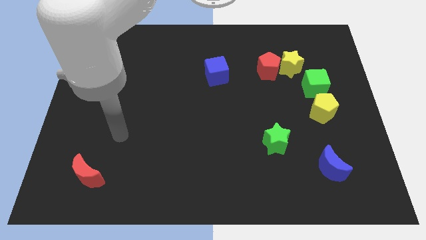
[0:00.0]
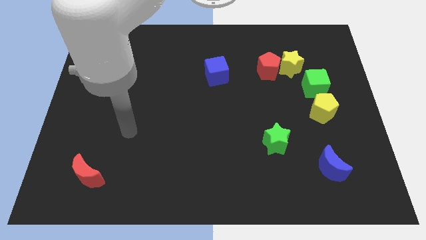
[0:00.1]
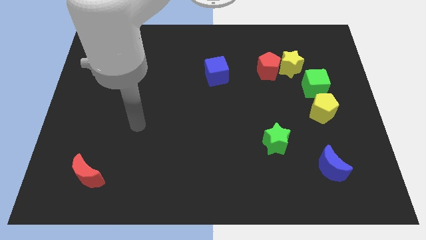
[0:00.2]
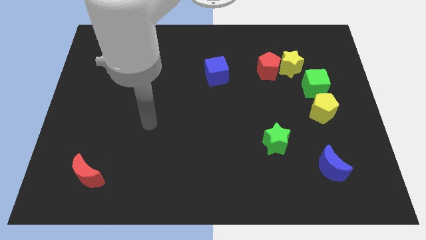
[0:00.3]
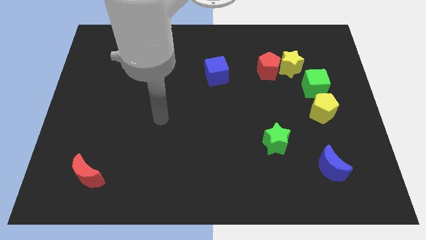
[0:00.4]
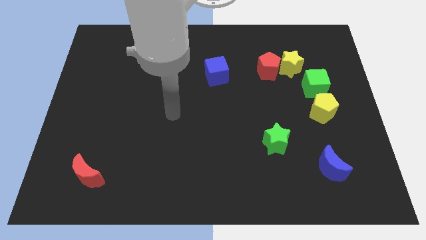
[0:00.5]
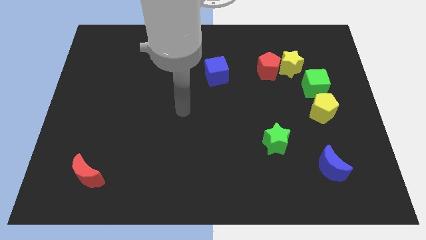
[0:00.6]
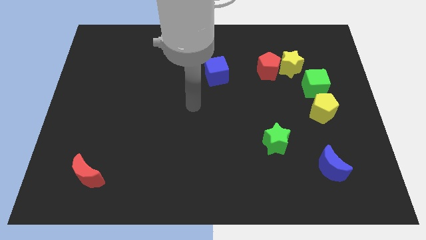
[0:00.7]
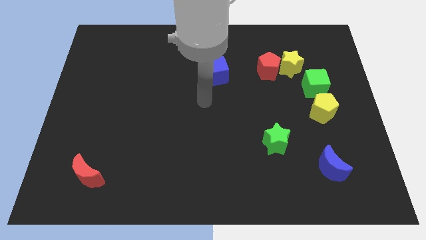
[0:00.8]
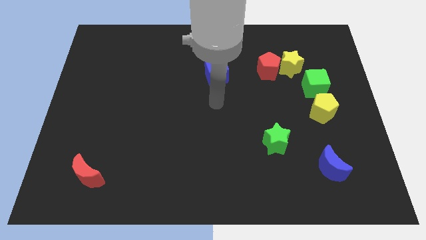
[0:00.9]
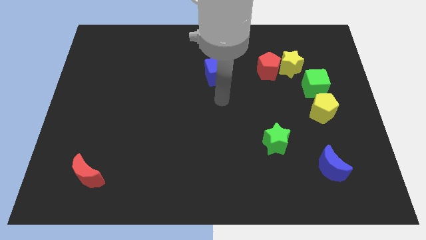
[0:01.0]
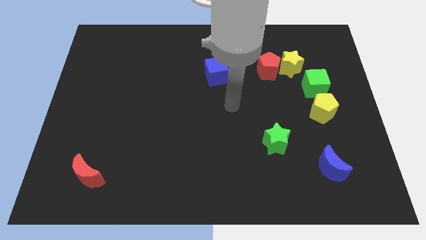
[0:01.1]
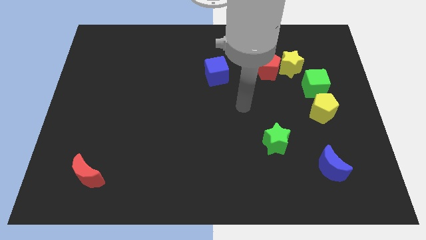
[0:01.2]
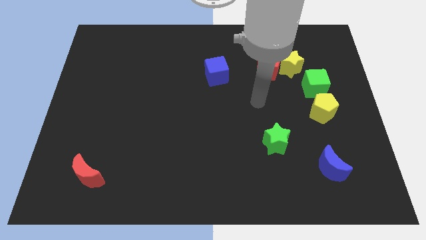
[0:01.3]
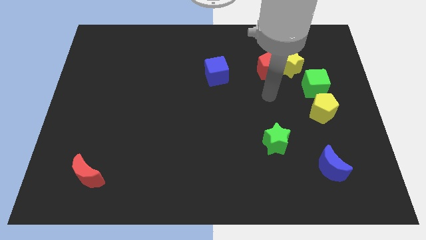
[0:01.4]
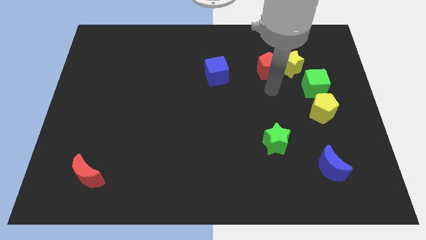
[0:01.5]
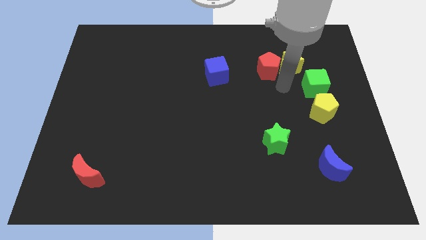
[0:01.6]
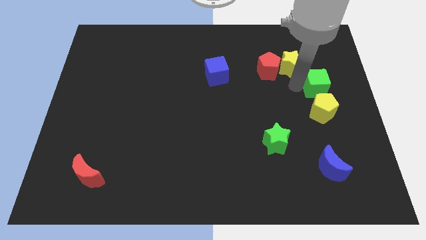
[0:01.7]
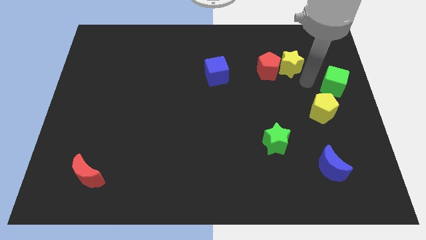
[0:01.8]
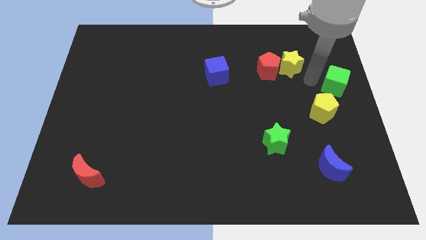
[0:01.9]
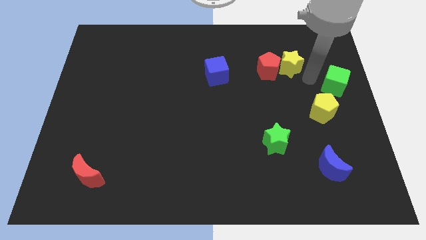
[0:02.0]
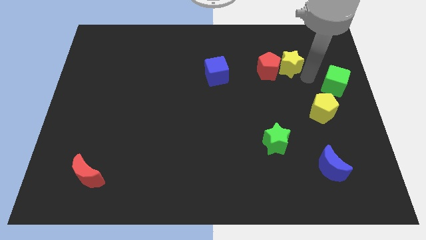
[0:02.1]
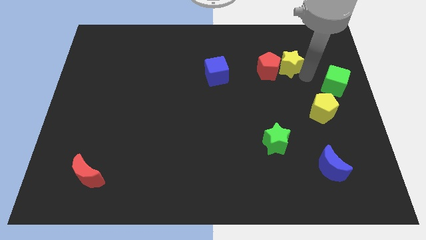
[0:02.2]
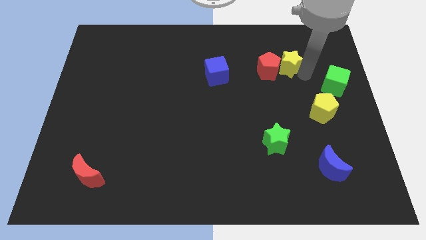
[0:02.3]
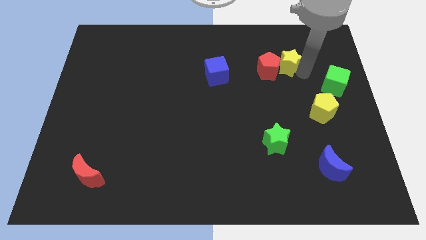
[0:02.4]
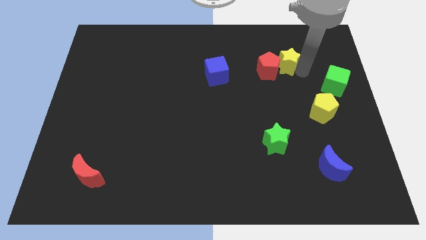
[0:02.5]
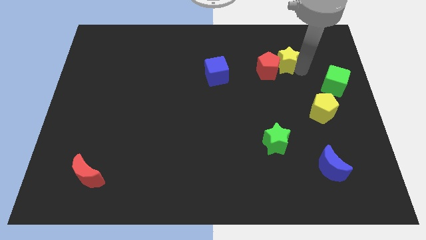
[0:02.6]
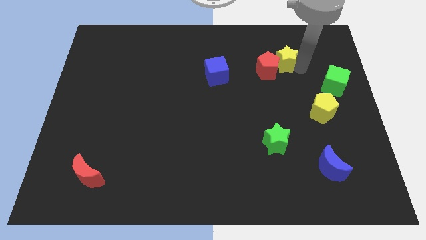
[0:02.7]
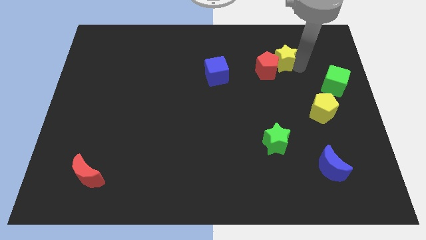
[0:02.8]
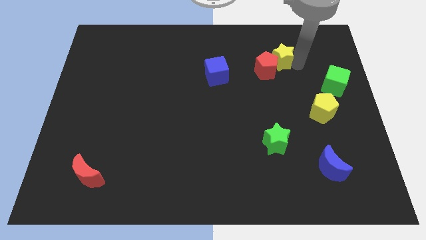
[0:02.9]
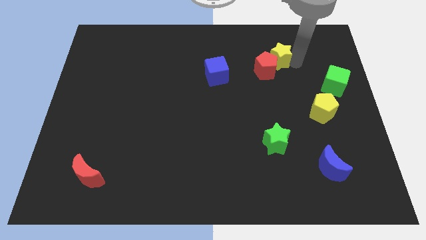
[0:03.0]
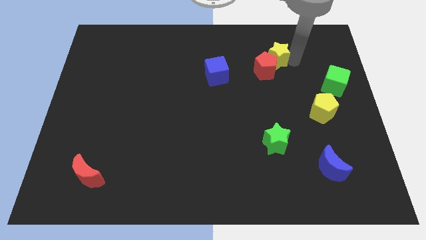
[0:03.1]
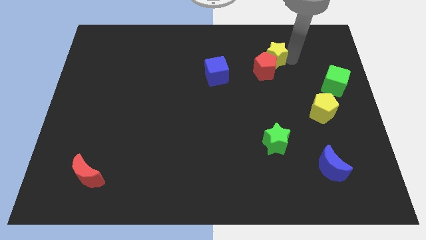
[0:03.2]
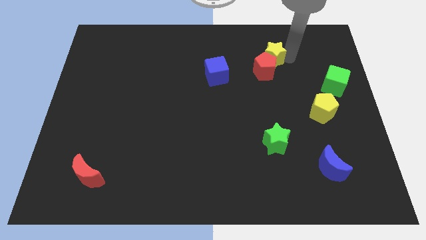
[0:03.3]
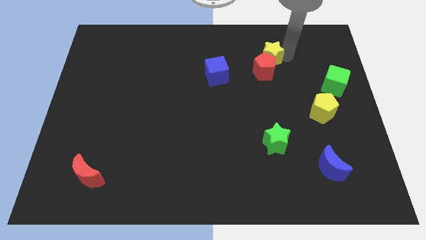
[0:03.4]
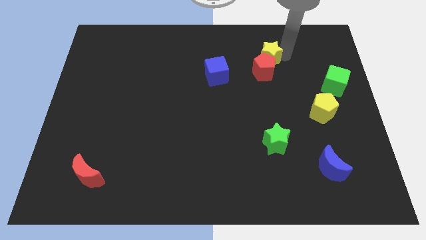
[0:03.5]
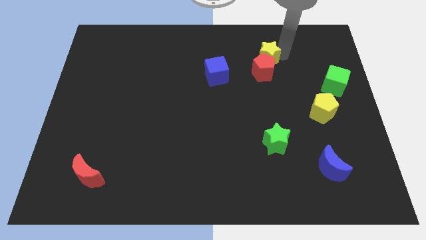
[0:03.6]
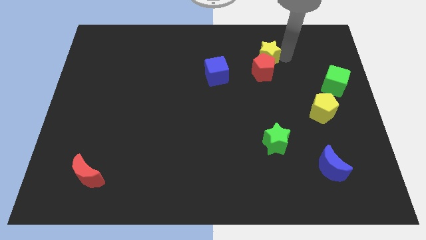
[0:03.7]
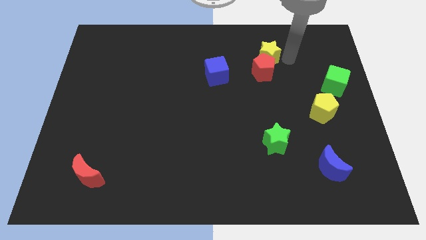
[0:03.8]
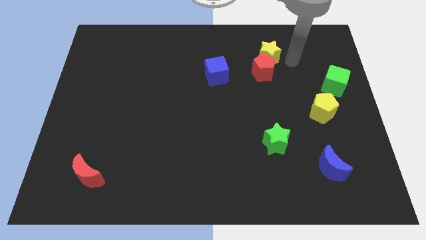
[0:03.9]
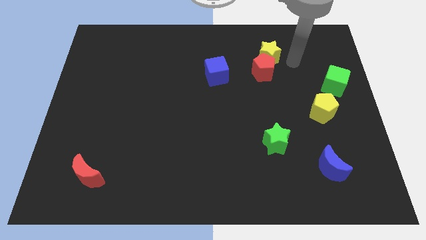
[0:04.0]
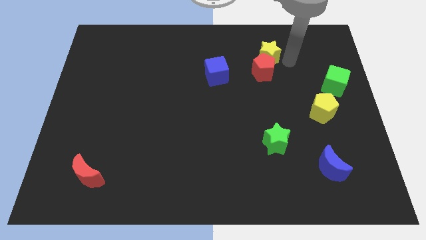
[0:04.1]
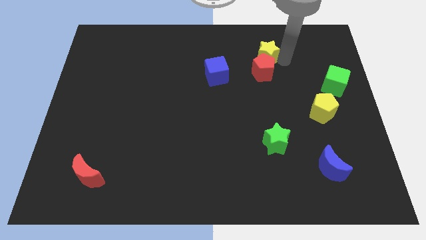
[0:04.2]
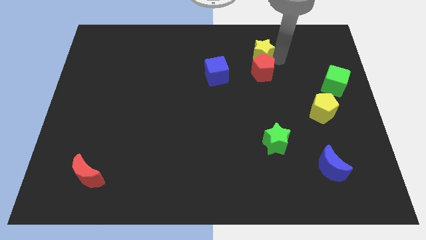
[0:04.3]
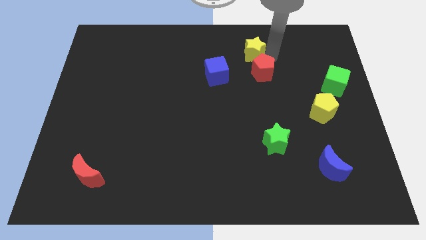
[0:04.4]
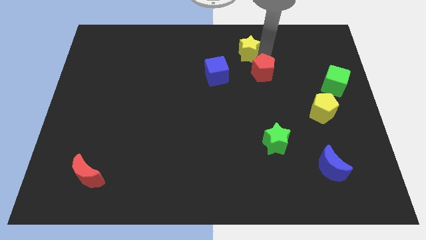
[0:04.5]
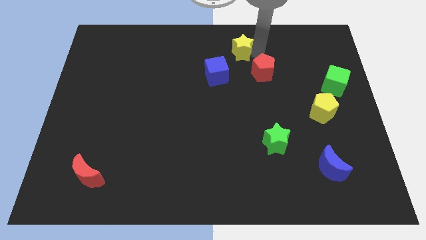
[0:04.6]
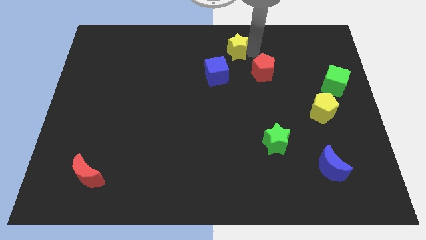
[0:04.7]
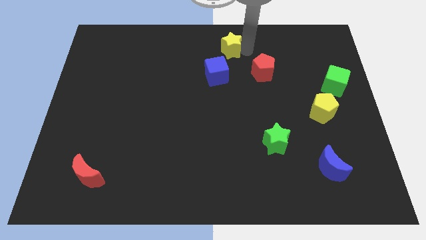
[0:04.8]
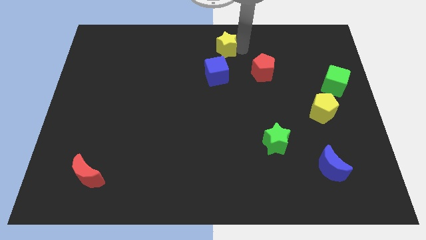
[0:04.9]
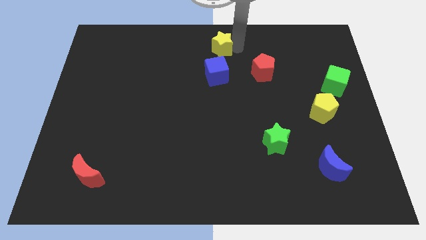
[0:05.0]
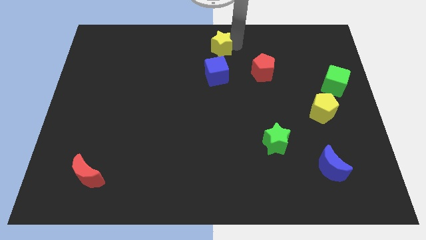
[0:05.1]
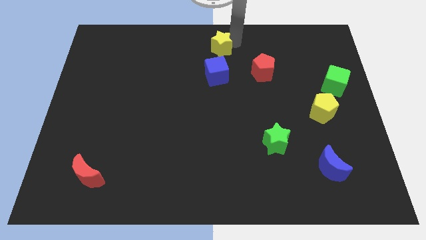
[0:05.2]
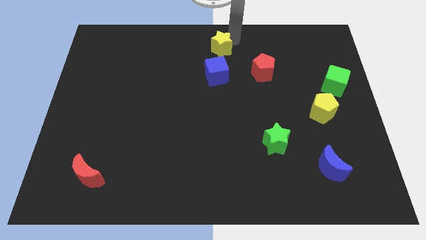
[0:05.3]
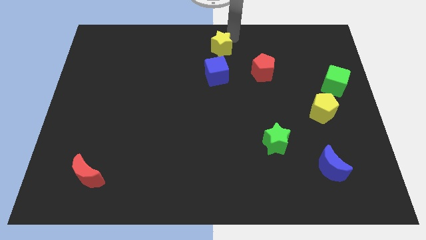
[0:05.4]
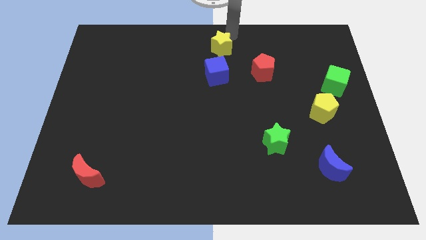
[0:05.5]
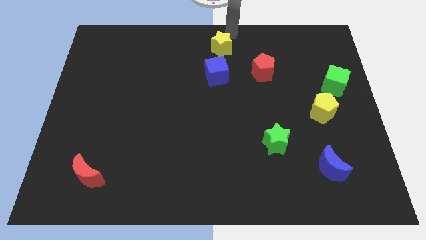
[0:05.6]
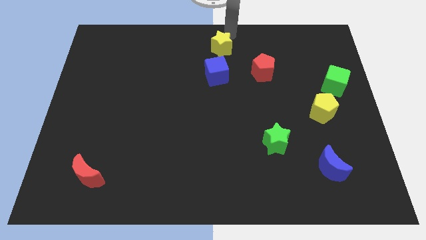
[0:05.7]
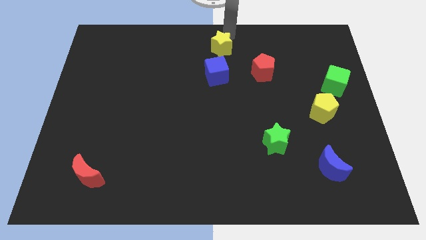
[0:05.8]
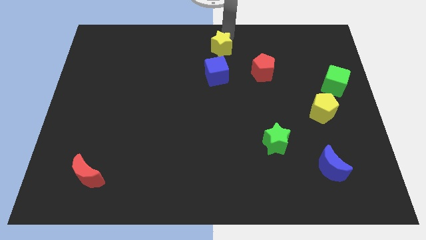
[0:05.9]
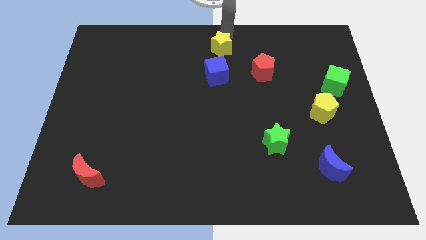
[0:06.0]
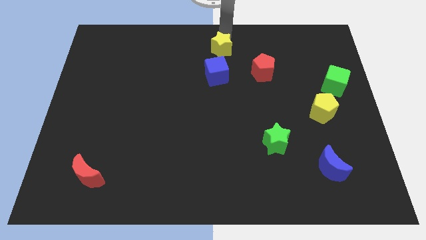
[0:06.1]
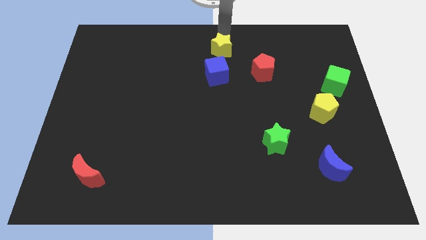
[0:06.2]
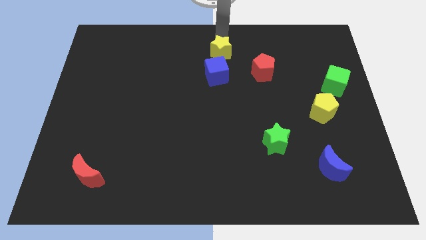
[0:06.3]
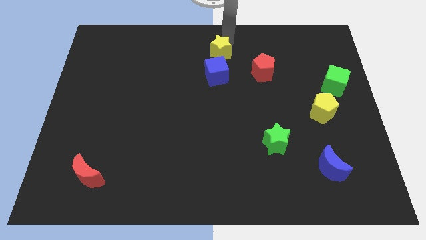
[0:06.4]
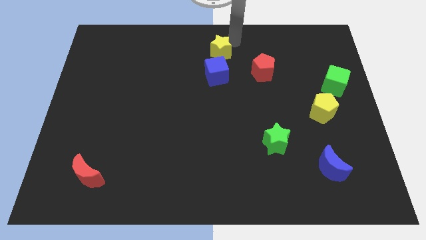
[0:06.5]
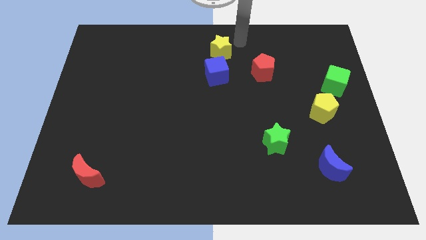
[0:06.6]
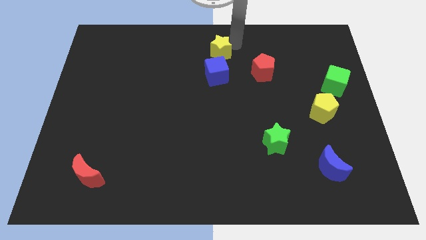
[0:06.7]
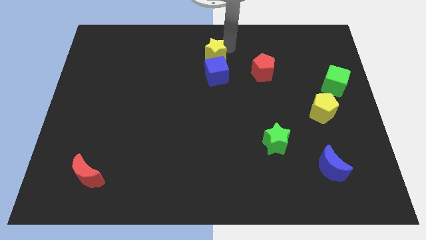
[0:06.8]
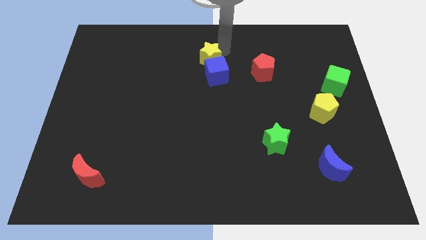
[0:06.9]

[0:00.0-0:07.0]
push the yellow star left

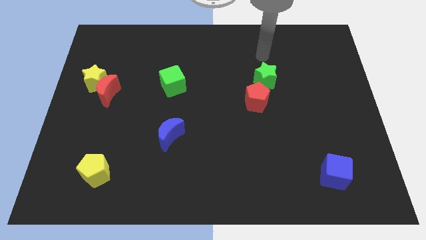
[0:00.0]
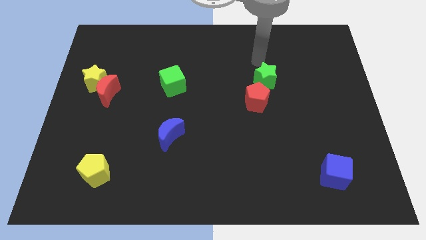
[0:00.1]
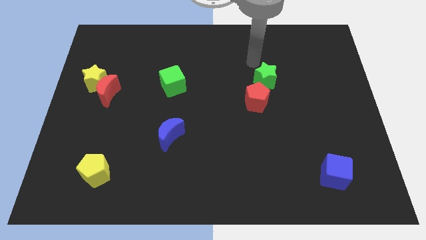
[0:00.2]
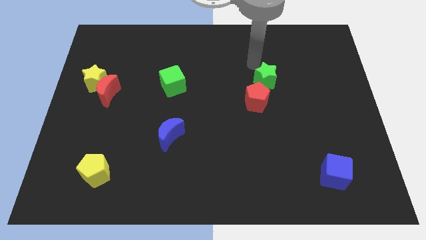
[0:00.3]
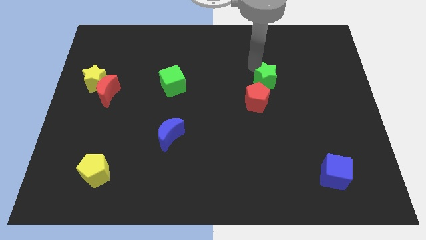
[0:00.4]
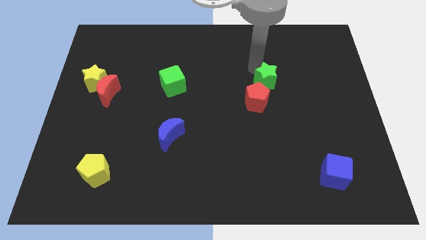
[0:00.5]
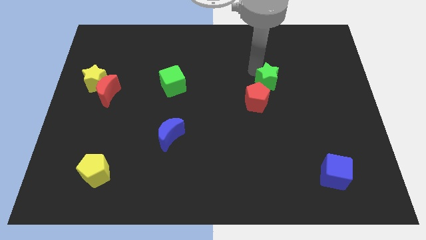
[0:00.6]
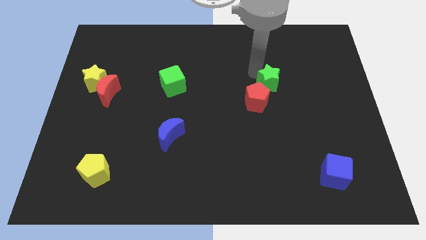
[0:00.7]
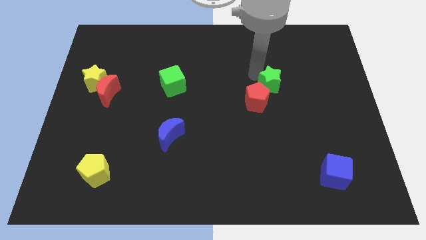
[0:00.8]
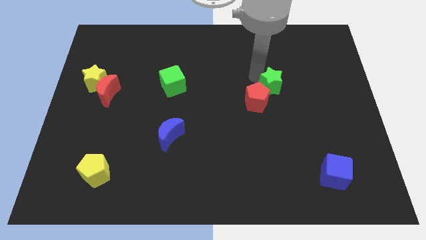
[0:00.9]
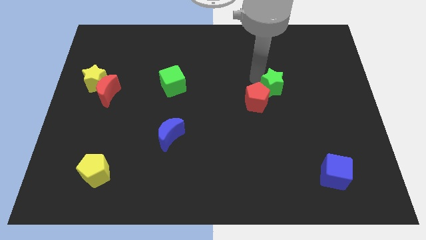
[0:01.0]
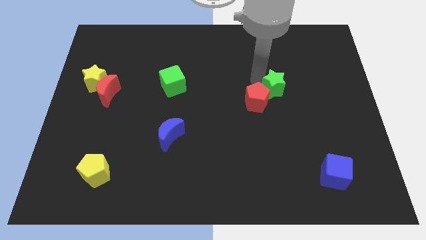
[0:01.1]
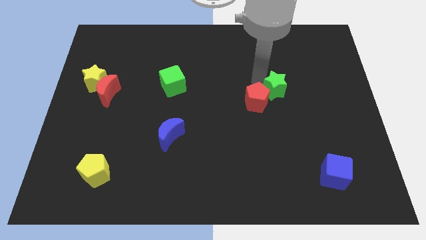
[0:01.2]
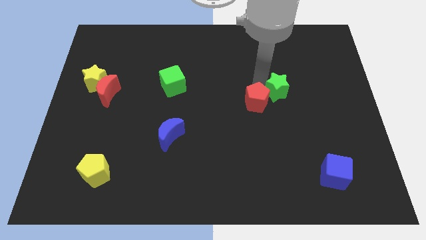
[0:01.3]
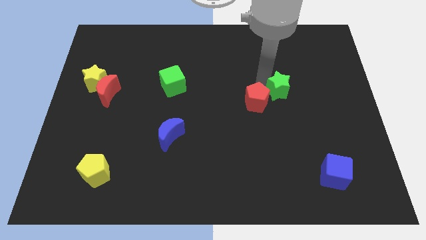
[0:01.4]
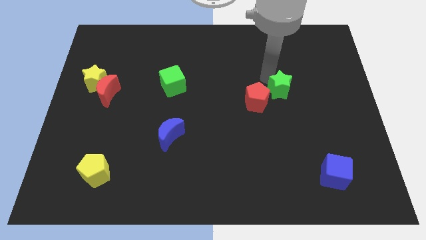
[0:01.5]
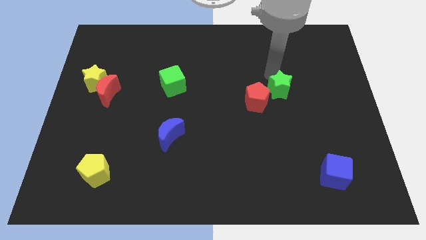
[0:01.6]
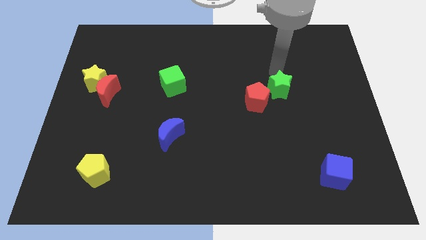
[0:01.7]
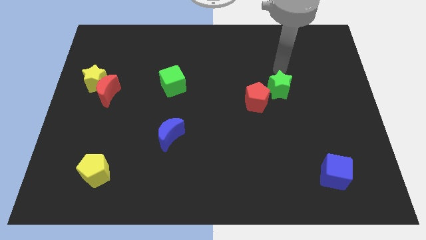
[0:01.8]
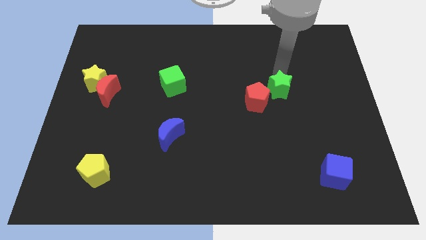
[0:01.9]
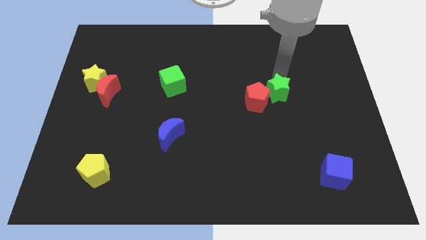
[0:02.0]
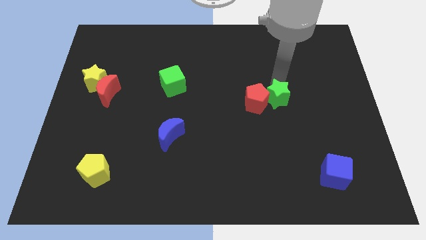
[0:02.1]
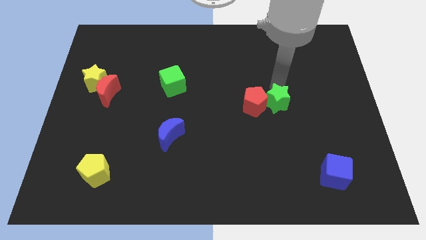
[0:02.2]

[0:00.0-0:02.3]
slightly slide the green star down
